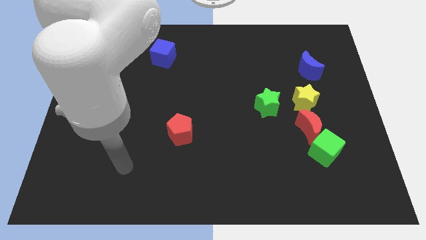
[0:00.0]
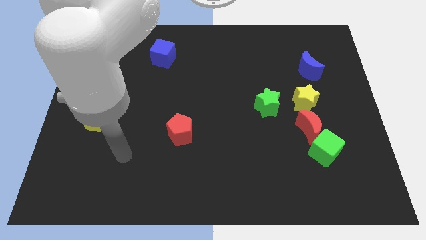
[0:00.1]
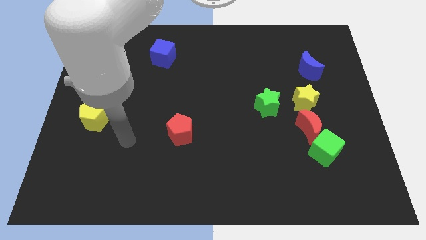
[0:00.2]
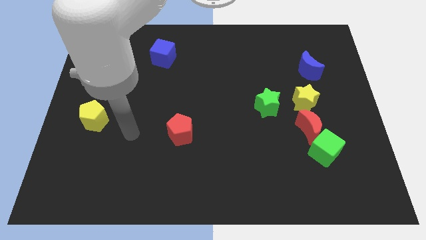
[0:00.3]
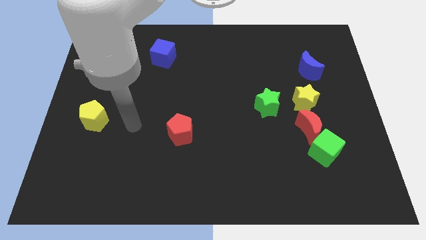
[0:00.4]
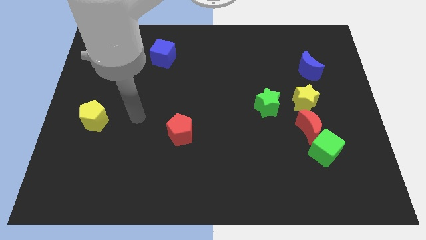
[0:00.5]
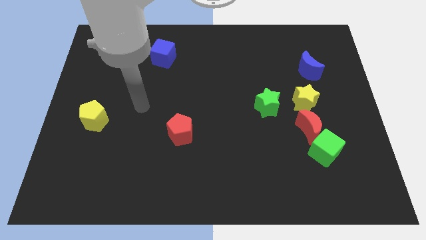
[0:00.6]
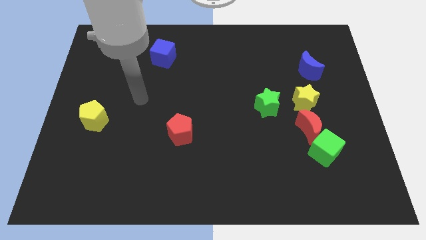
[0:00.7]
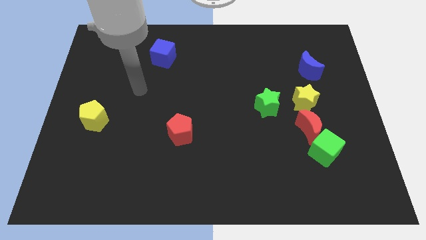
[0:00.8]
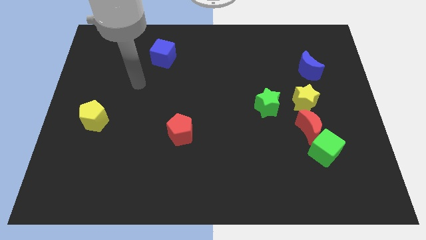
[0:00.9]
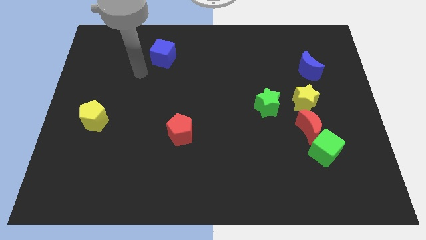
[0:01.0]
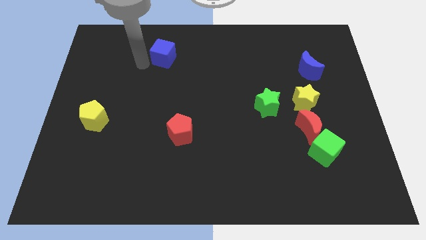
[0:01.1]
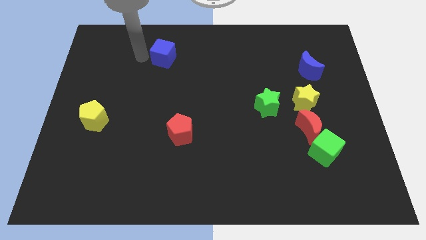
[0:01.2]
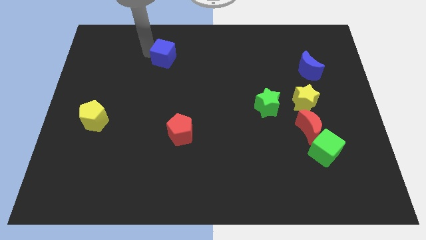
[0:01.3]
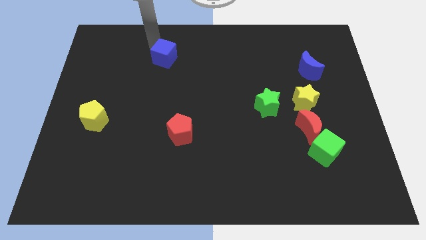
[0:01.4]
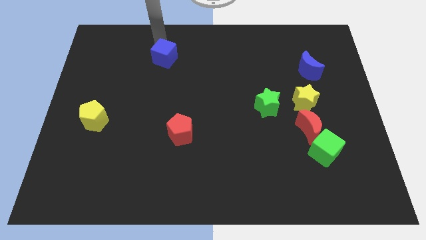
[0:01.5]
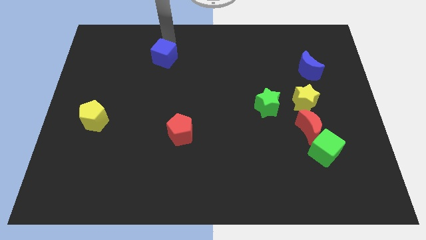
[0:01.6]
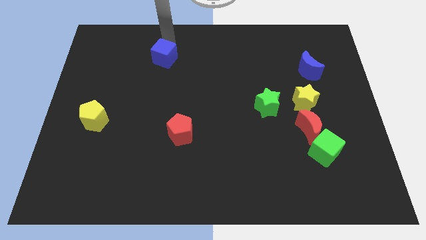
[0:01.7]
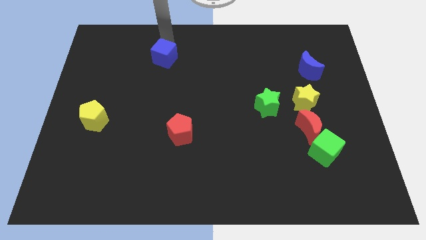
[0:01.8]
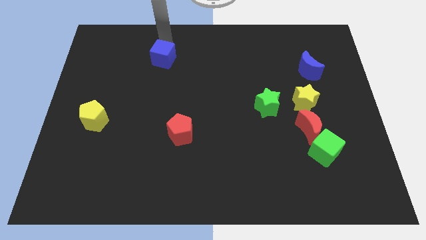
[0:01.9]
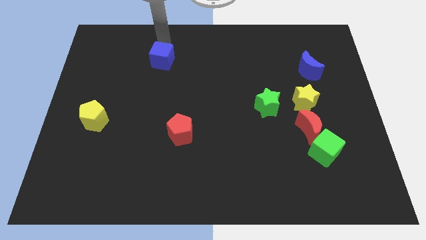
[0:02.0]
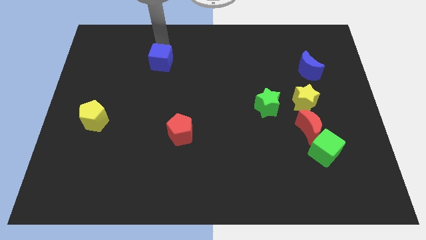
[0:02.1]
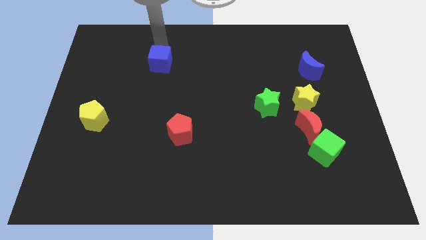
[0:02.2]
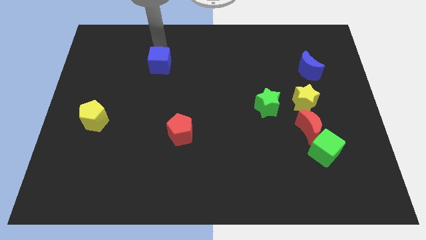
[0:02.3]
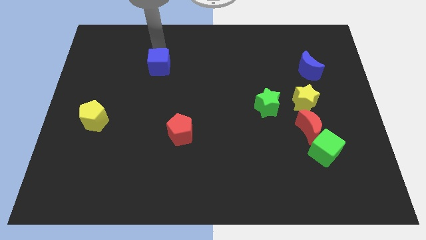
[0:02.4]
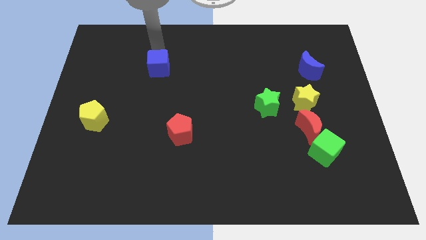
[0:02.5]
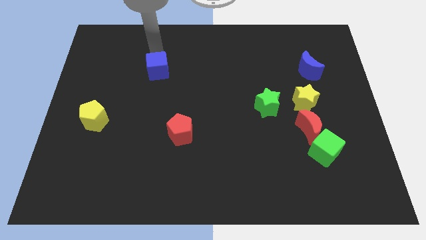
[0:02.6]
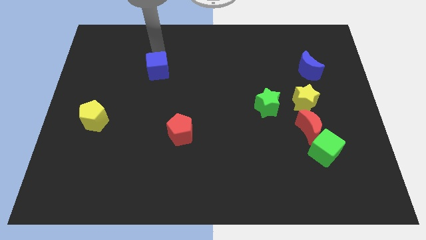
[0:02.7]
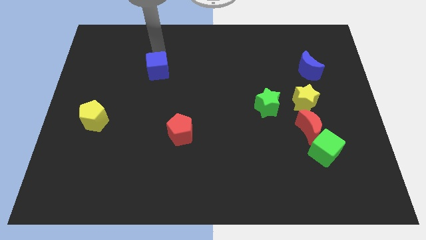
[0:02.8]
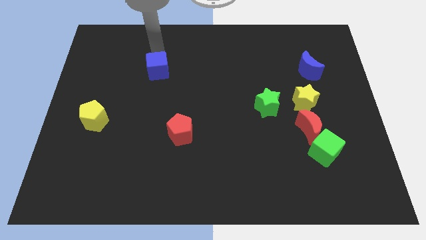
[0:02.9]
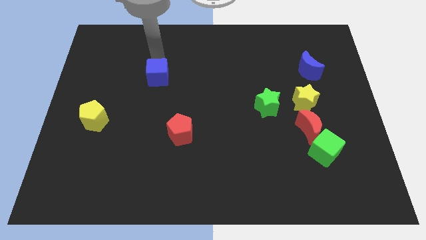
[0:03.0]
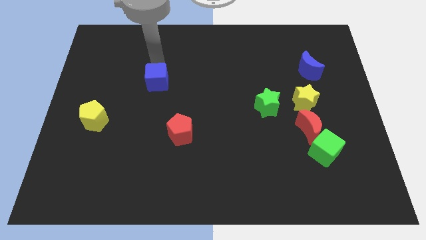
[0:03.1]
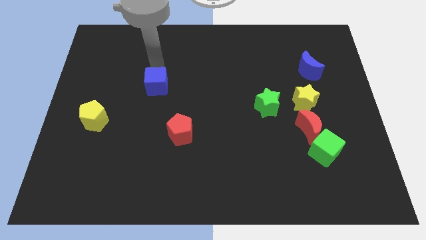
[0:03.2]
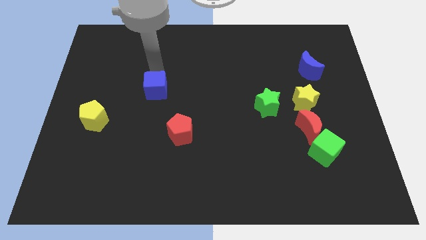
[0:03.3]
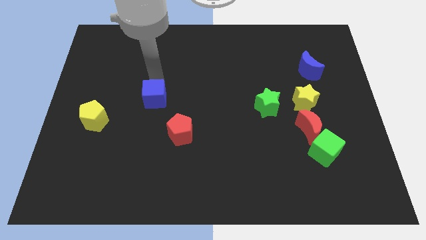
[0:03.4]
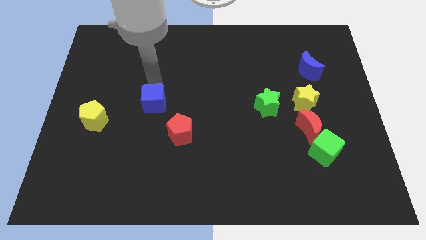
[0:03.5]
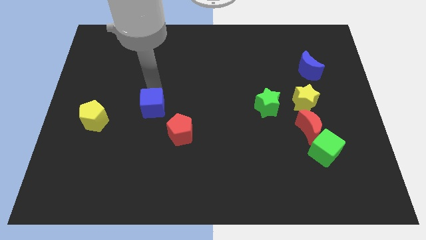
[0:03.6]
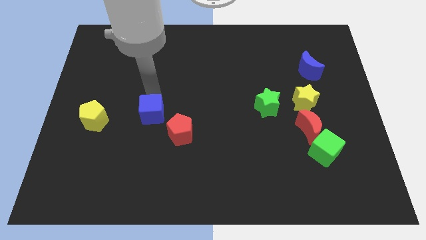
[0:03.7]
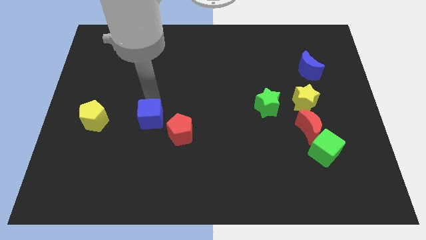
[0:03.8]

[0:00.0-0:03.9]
push the blue cube down

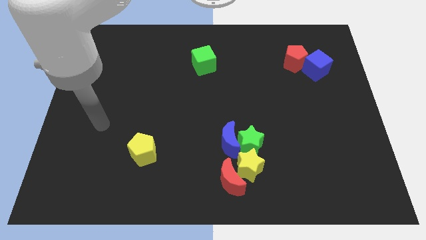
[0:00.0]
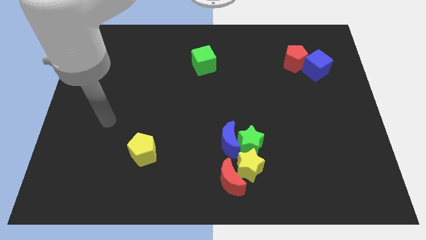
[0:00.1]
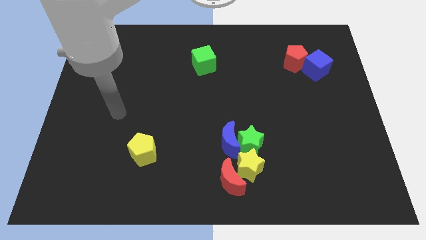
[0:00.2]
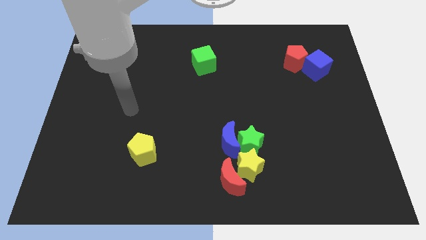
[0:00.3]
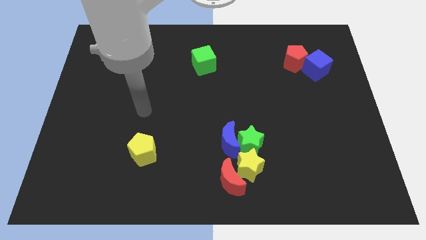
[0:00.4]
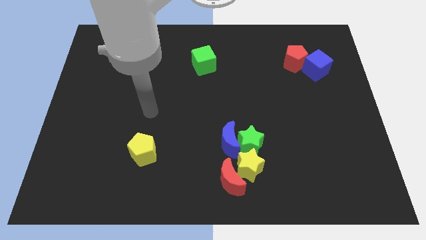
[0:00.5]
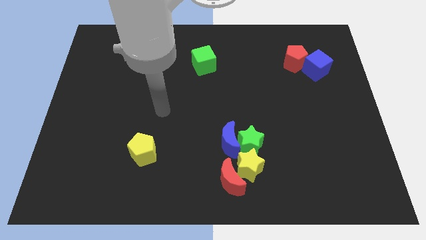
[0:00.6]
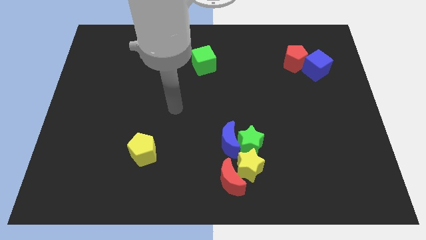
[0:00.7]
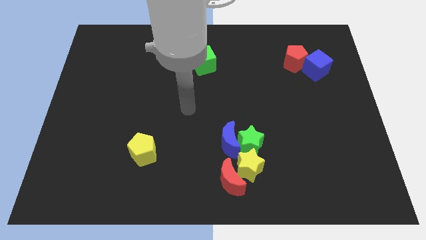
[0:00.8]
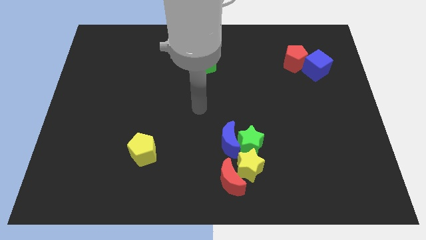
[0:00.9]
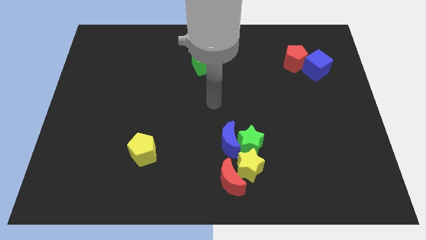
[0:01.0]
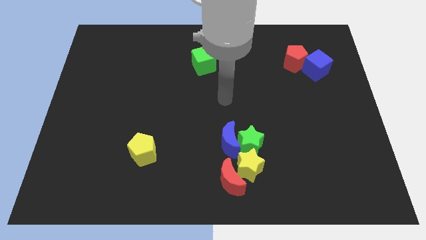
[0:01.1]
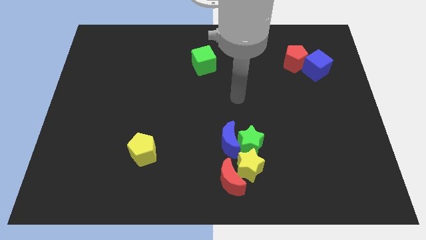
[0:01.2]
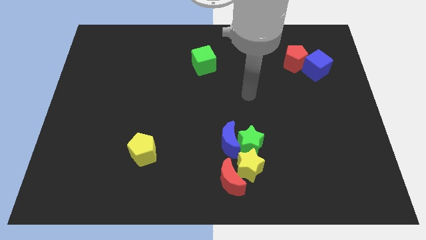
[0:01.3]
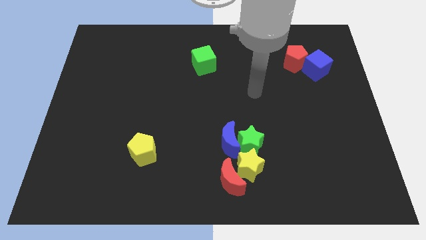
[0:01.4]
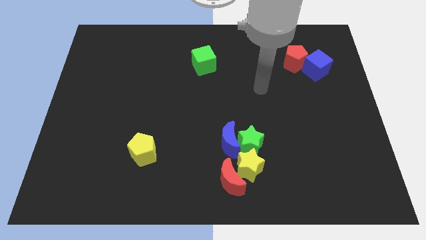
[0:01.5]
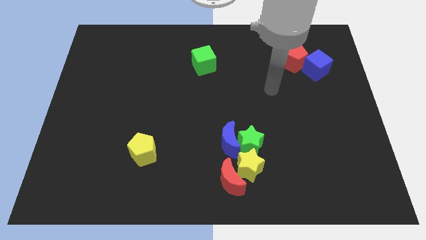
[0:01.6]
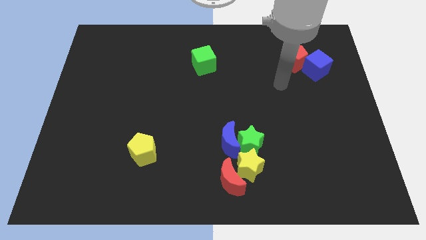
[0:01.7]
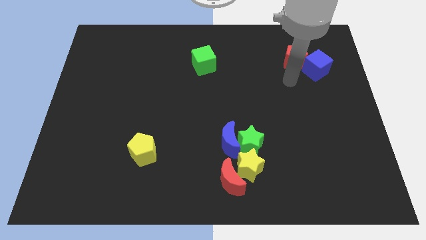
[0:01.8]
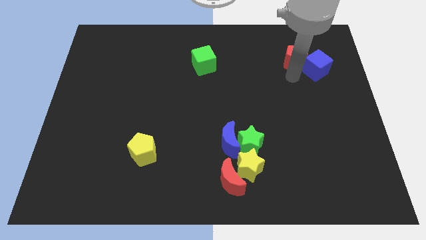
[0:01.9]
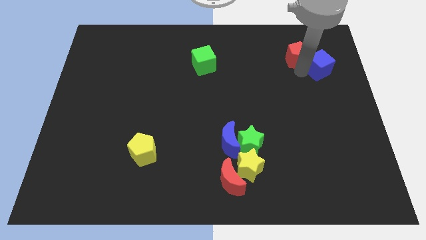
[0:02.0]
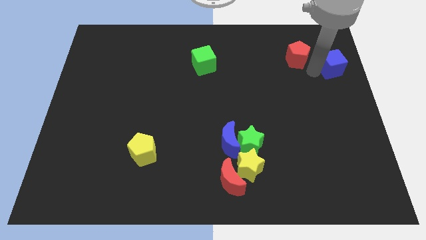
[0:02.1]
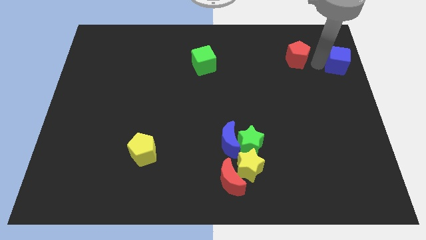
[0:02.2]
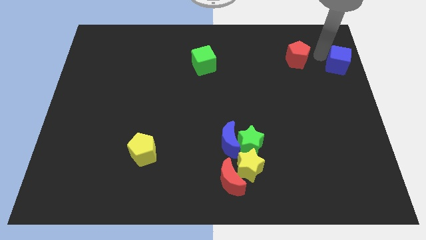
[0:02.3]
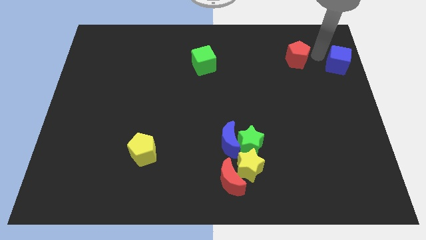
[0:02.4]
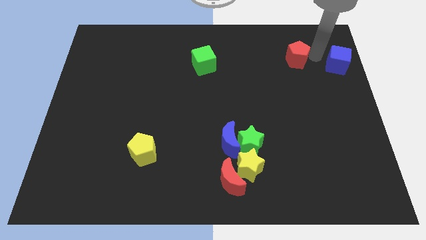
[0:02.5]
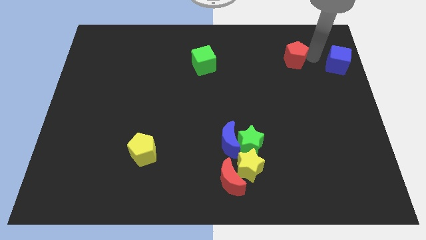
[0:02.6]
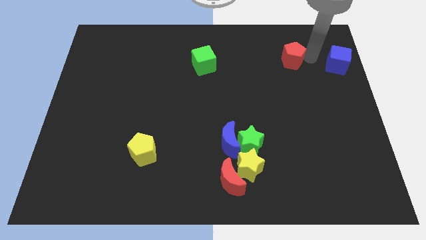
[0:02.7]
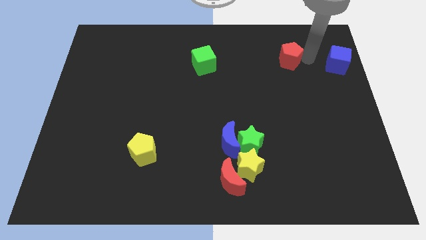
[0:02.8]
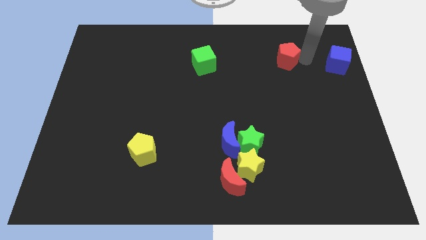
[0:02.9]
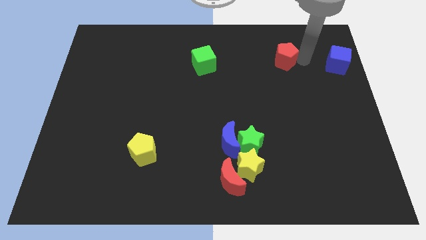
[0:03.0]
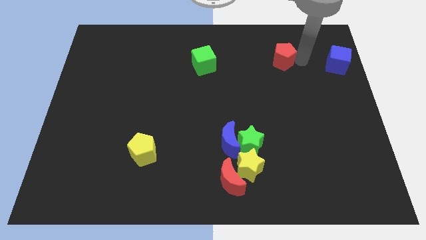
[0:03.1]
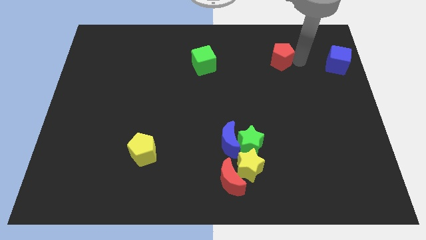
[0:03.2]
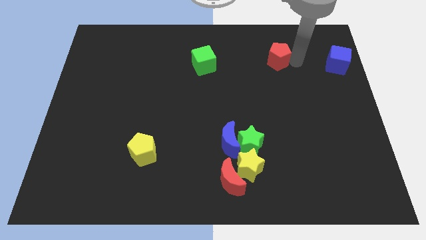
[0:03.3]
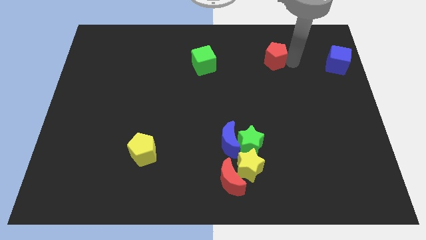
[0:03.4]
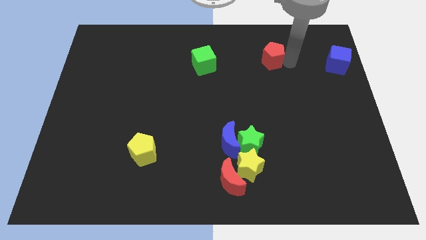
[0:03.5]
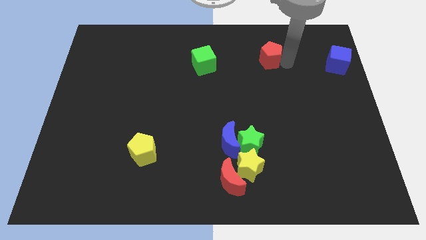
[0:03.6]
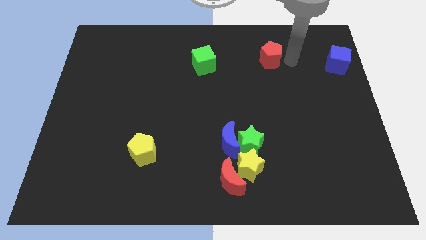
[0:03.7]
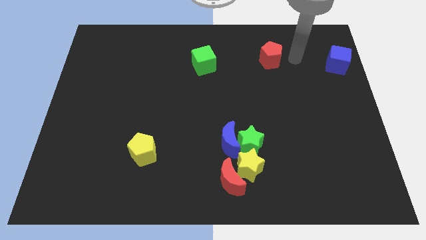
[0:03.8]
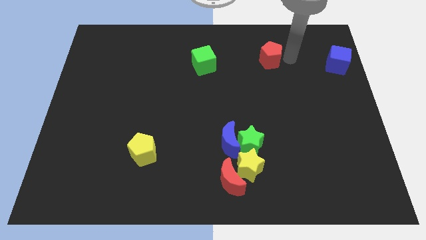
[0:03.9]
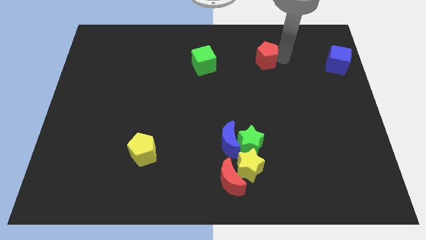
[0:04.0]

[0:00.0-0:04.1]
move the red pentagon a little bit to the left

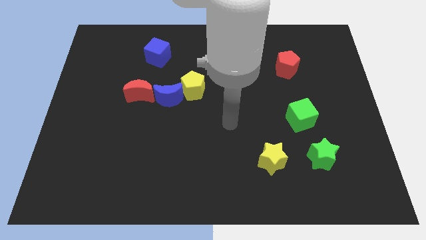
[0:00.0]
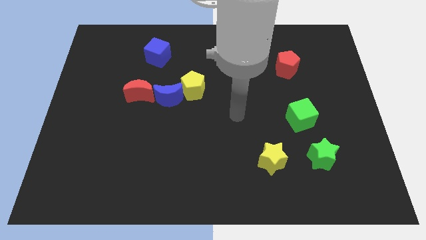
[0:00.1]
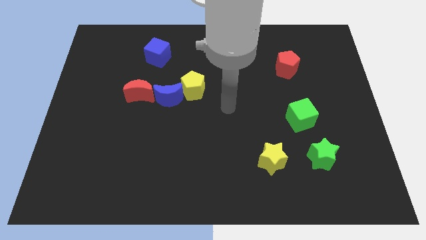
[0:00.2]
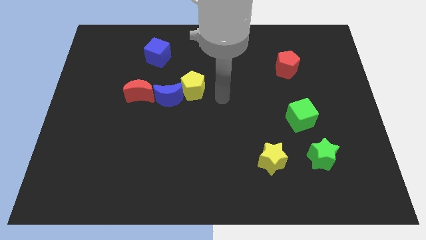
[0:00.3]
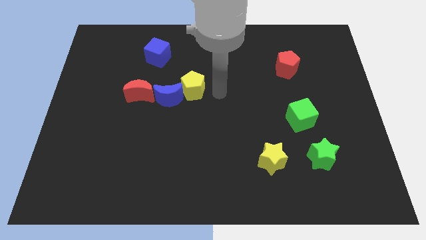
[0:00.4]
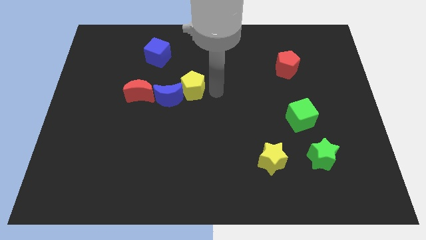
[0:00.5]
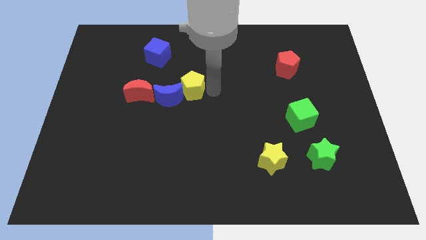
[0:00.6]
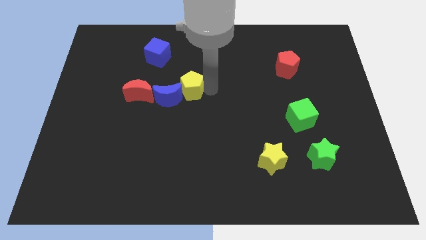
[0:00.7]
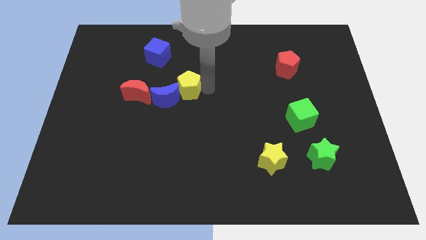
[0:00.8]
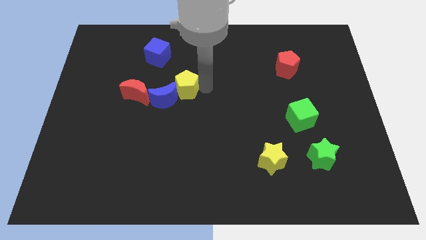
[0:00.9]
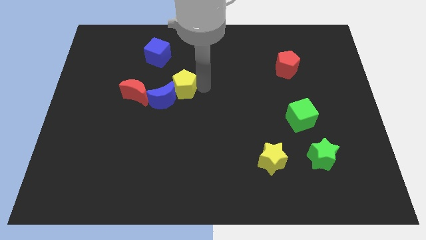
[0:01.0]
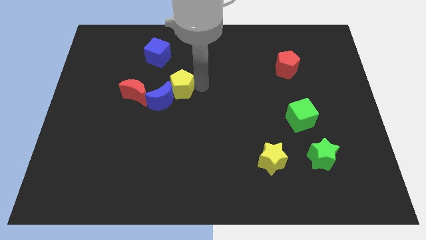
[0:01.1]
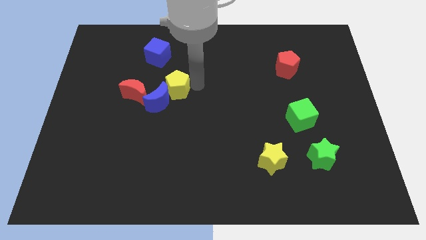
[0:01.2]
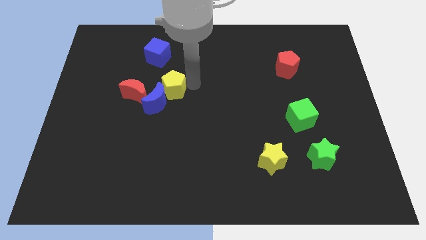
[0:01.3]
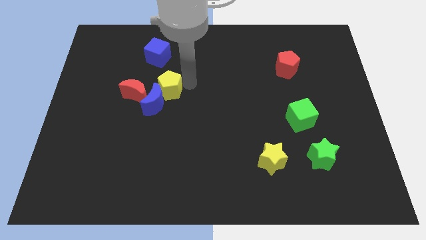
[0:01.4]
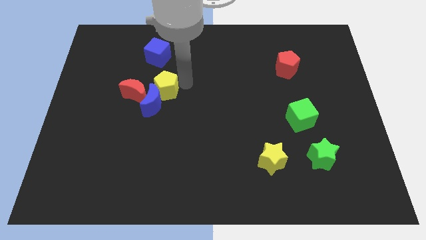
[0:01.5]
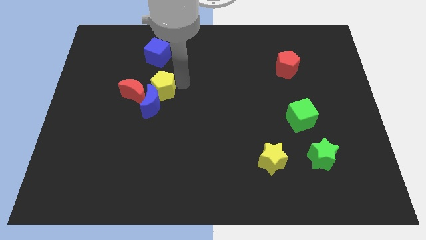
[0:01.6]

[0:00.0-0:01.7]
slide the yellow pentagon to the left slightly
